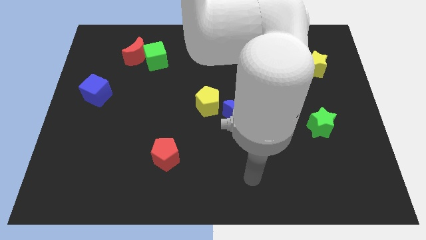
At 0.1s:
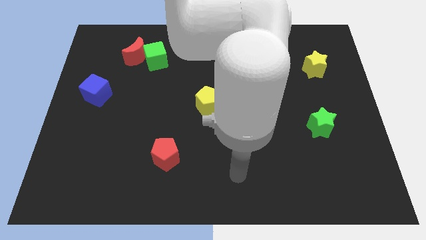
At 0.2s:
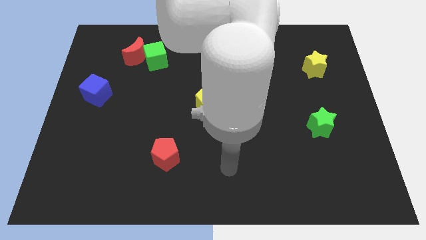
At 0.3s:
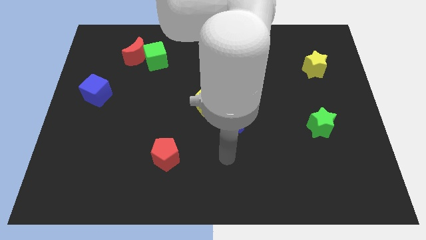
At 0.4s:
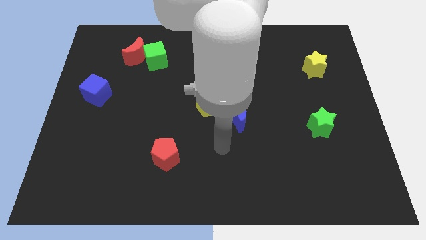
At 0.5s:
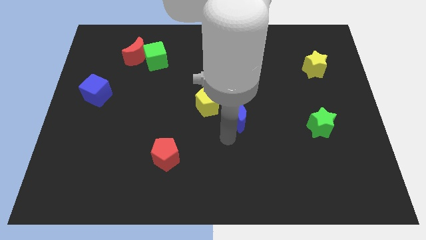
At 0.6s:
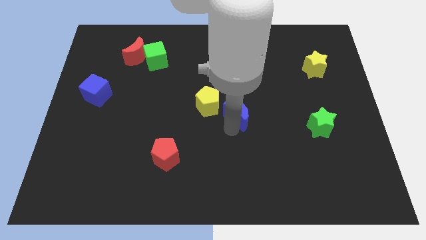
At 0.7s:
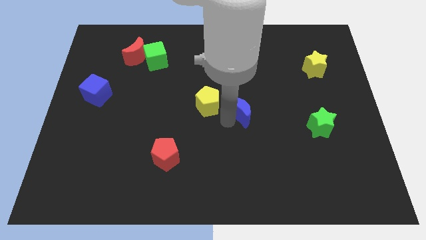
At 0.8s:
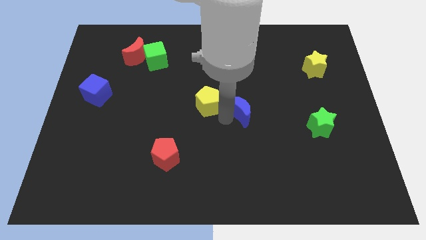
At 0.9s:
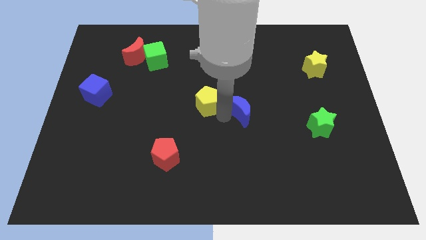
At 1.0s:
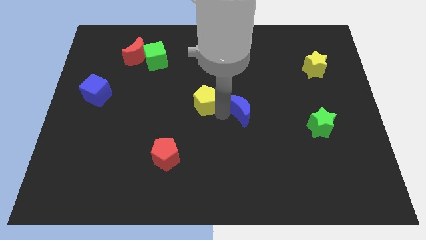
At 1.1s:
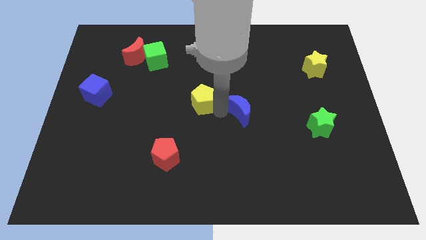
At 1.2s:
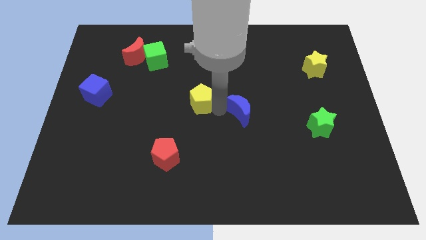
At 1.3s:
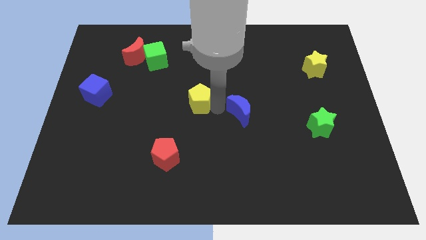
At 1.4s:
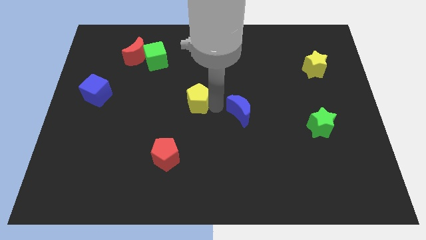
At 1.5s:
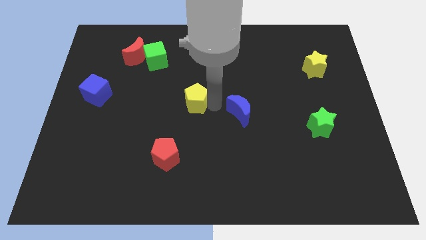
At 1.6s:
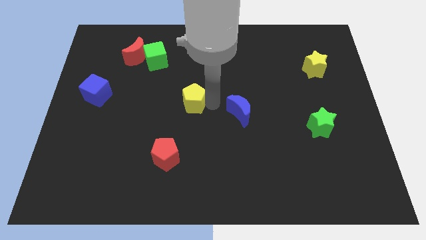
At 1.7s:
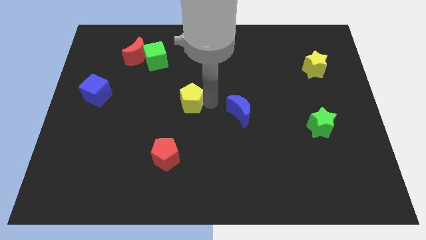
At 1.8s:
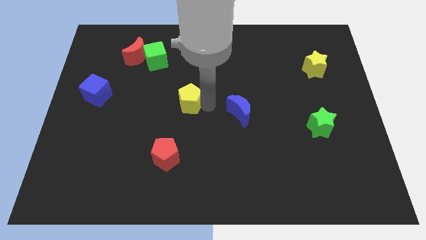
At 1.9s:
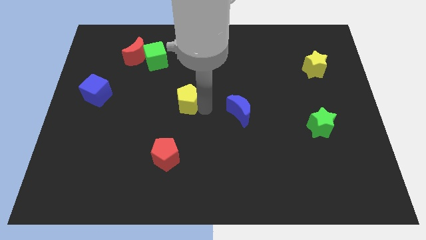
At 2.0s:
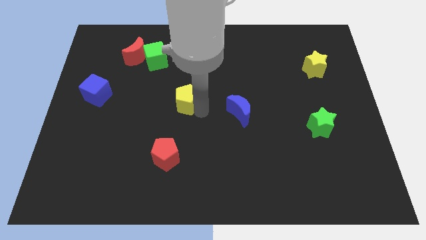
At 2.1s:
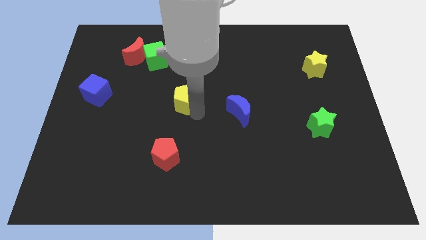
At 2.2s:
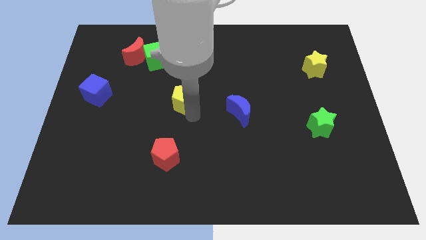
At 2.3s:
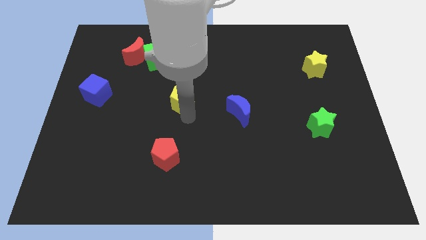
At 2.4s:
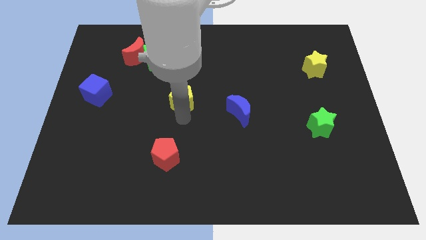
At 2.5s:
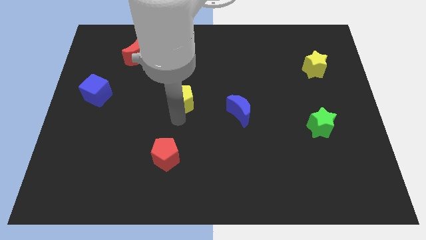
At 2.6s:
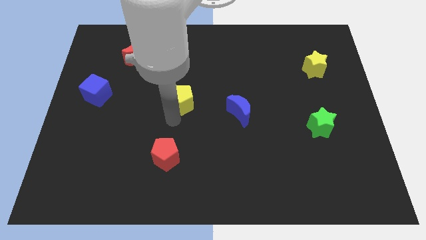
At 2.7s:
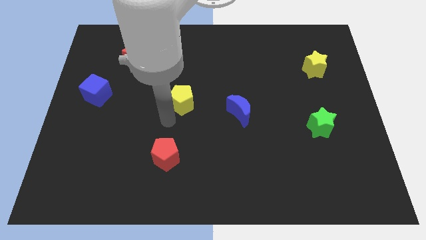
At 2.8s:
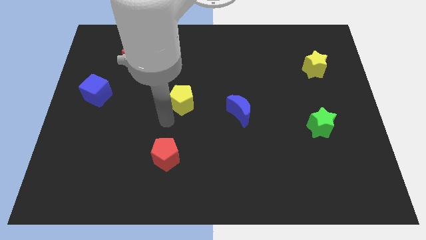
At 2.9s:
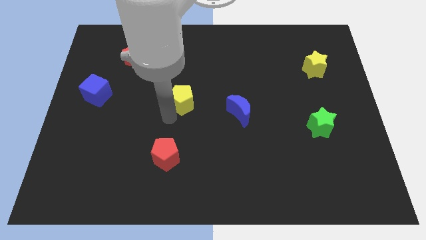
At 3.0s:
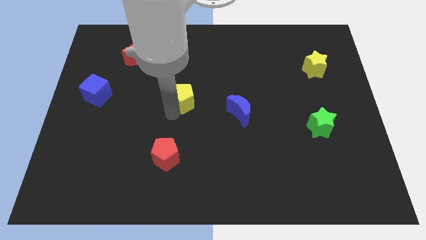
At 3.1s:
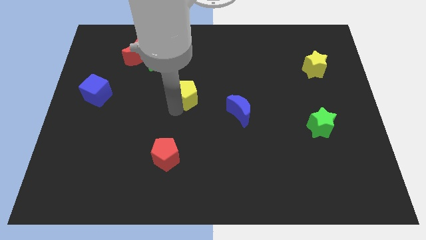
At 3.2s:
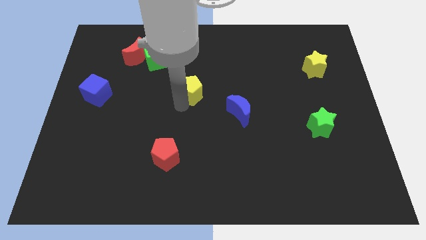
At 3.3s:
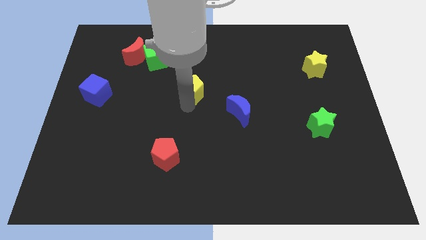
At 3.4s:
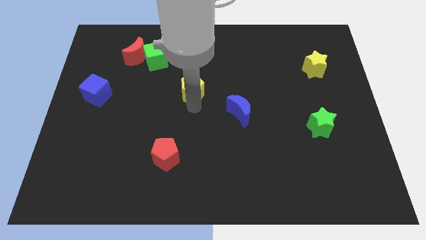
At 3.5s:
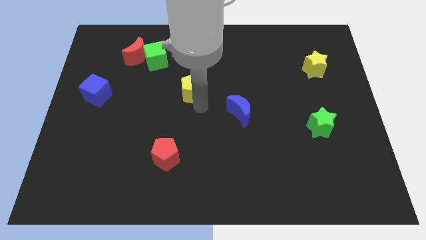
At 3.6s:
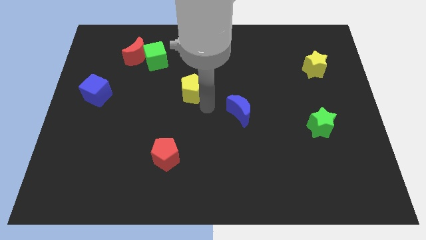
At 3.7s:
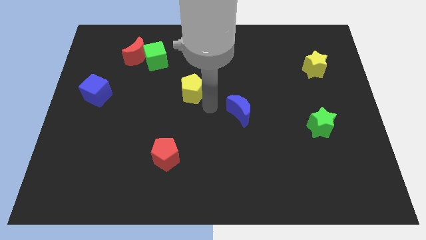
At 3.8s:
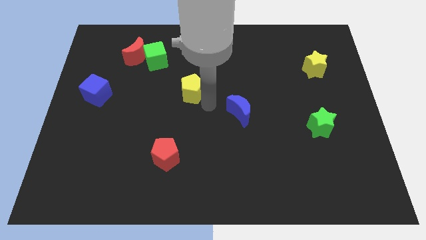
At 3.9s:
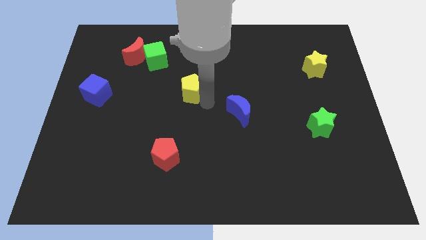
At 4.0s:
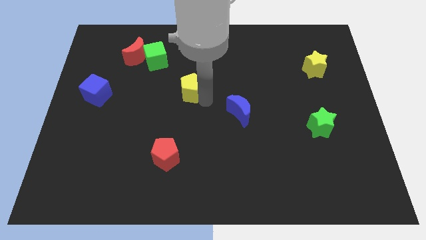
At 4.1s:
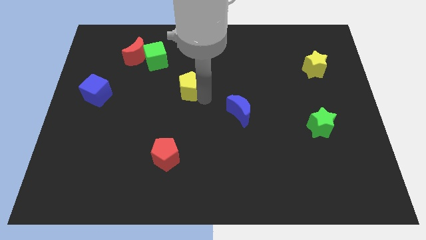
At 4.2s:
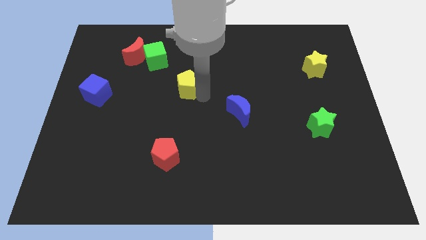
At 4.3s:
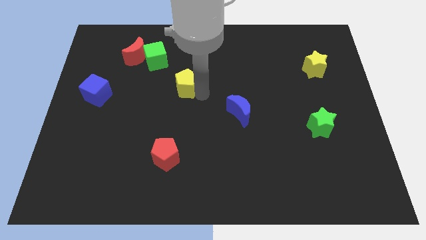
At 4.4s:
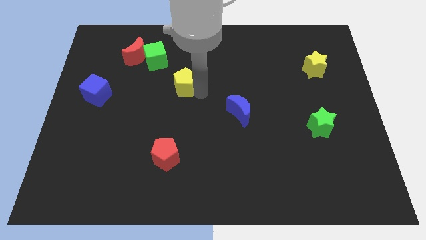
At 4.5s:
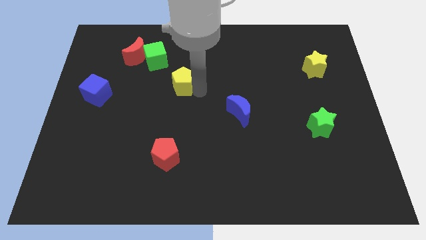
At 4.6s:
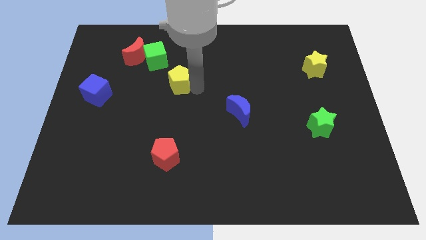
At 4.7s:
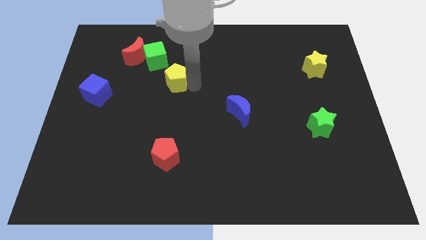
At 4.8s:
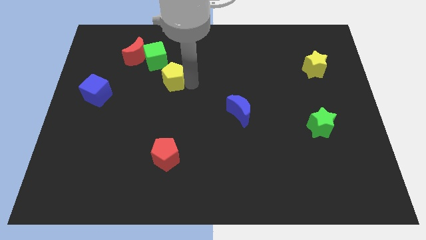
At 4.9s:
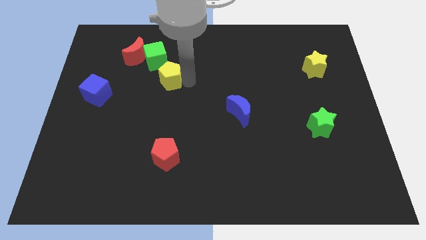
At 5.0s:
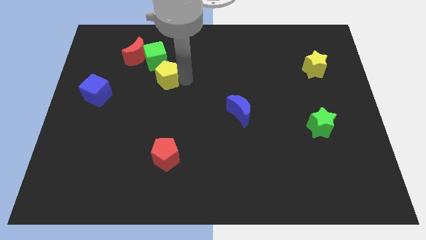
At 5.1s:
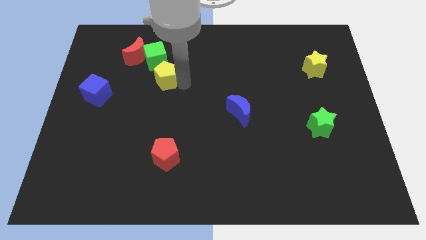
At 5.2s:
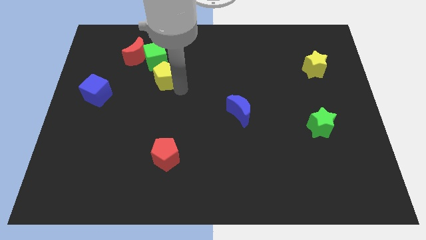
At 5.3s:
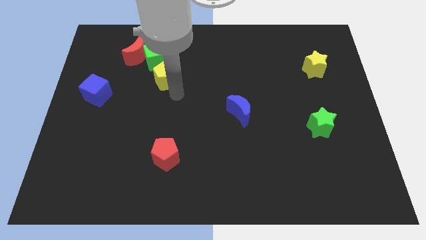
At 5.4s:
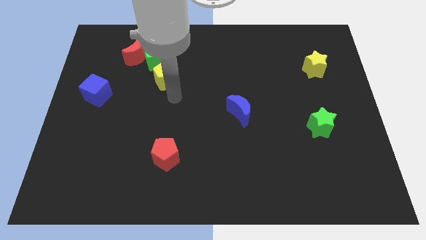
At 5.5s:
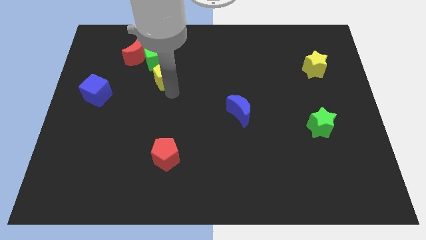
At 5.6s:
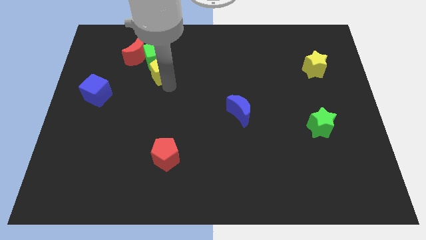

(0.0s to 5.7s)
slide the yellow pentagon close to the green cube

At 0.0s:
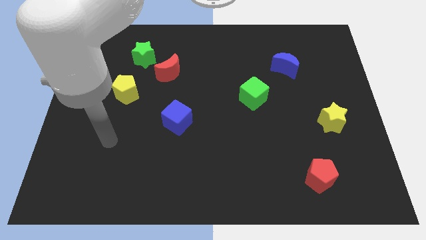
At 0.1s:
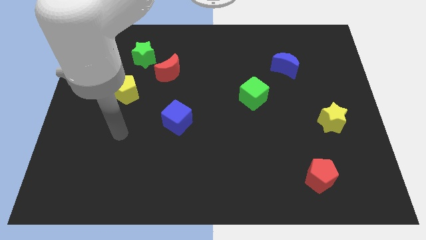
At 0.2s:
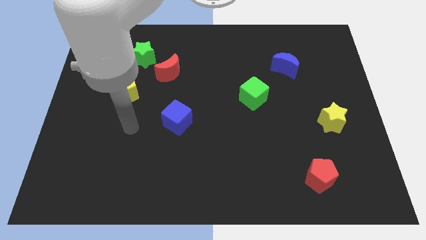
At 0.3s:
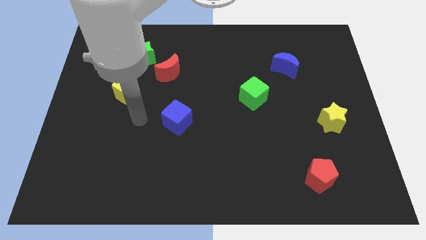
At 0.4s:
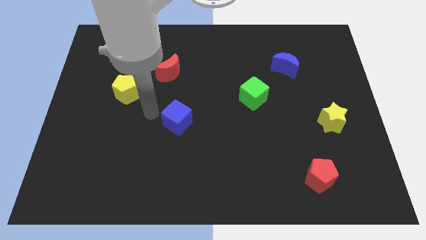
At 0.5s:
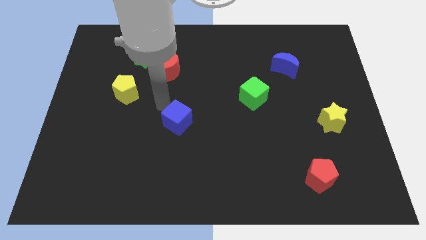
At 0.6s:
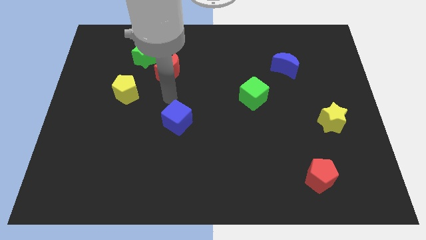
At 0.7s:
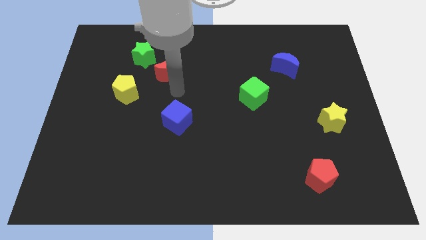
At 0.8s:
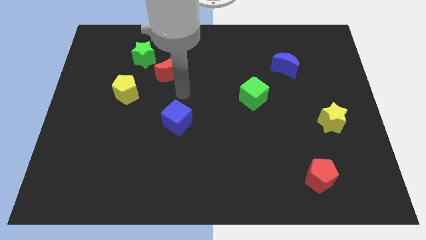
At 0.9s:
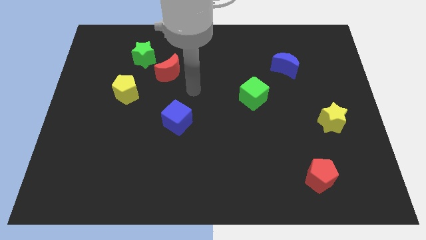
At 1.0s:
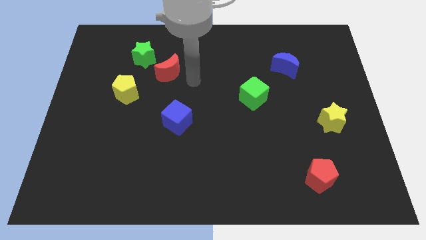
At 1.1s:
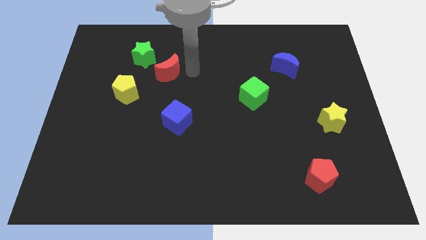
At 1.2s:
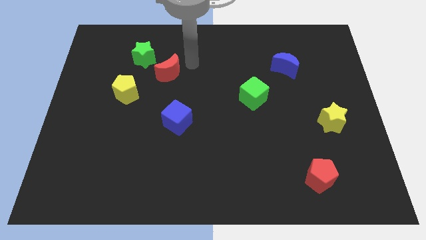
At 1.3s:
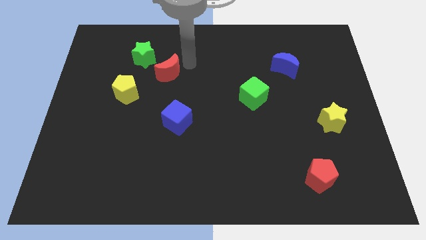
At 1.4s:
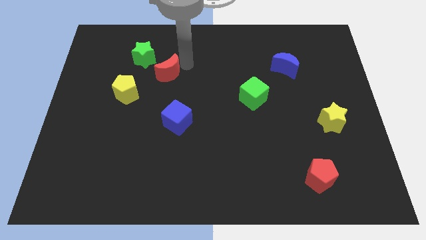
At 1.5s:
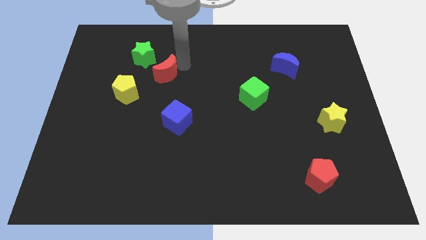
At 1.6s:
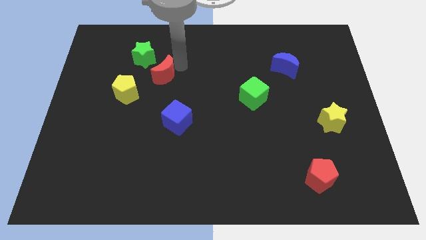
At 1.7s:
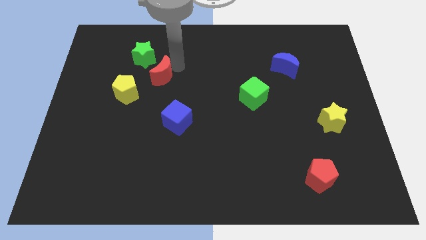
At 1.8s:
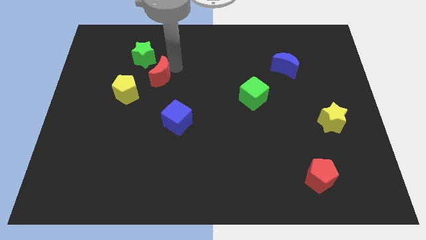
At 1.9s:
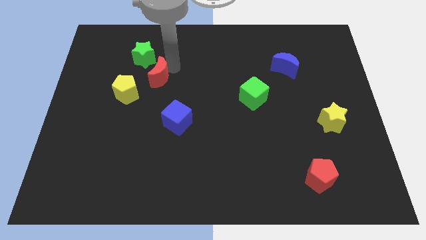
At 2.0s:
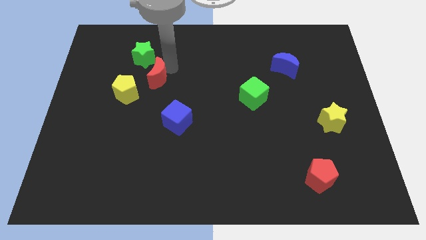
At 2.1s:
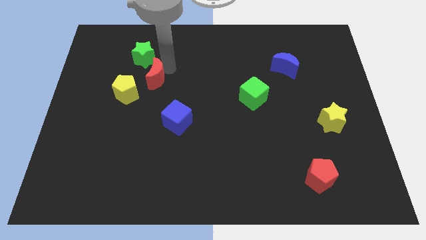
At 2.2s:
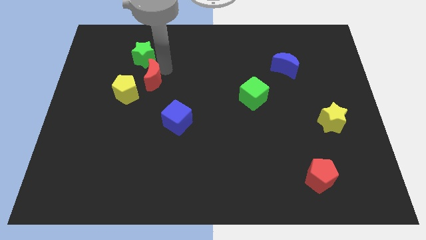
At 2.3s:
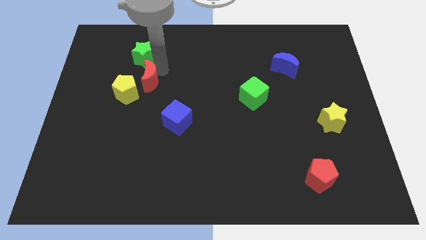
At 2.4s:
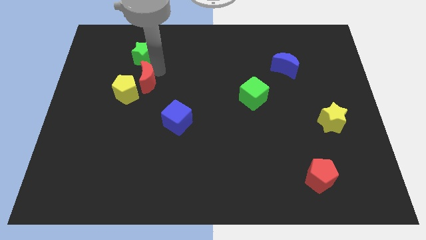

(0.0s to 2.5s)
put the red moon to the yellow pentagon

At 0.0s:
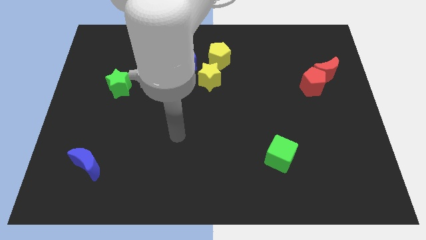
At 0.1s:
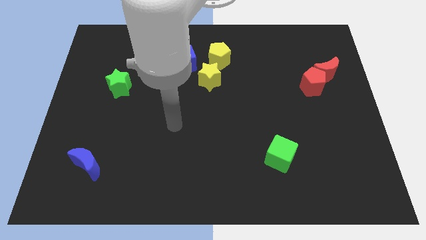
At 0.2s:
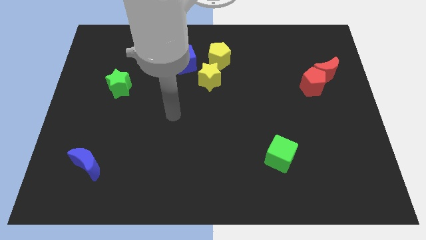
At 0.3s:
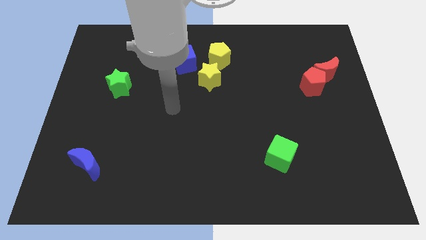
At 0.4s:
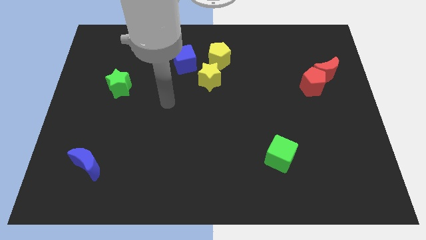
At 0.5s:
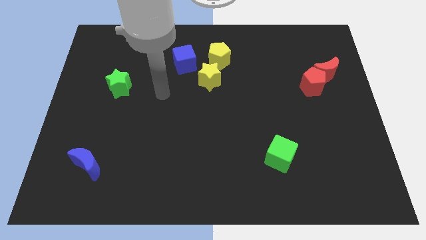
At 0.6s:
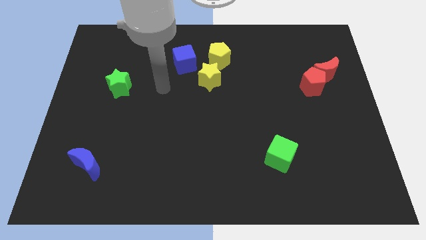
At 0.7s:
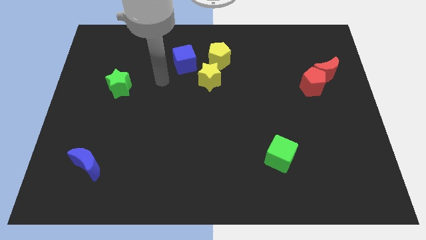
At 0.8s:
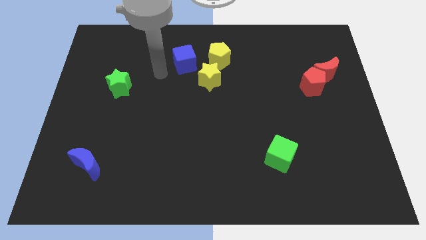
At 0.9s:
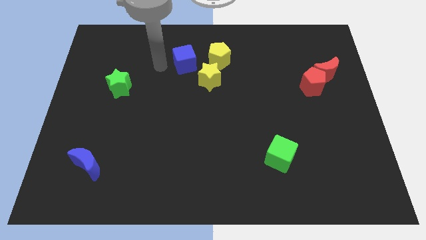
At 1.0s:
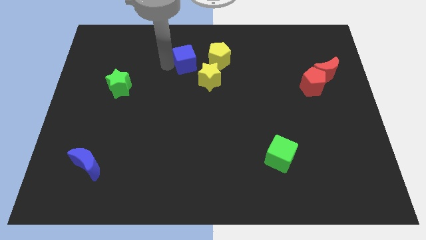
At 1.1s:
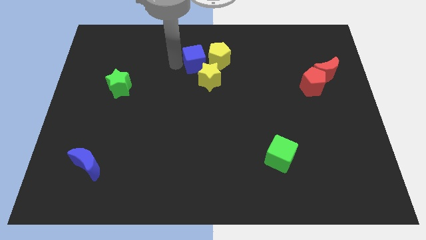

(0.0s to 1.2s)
slide the blue cube next to the yellow pentagon
